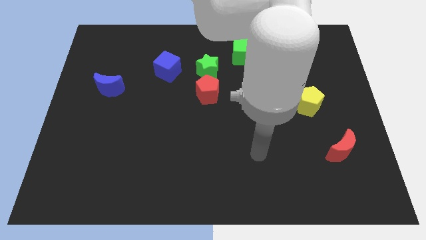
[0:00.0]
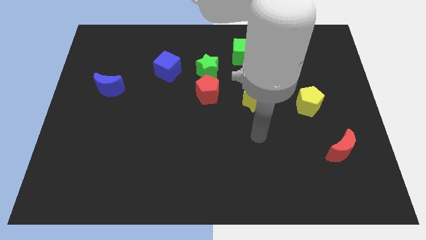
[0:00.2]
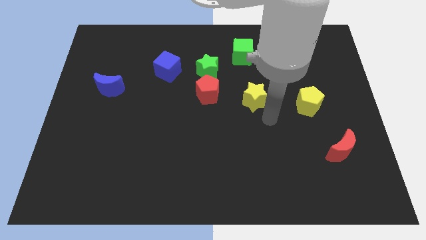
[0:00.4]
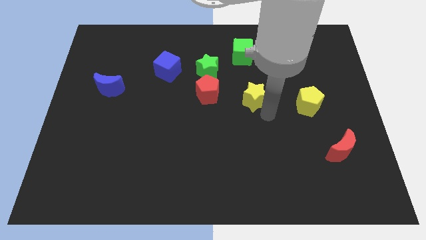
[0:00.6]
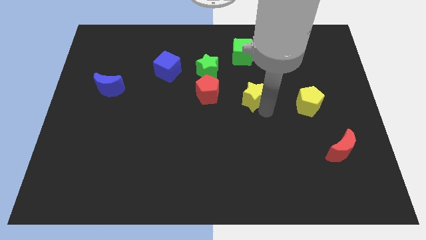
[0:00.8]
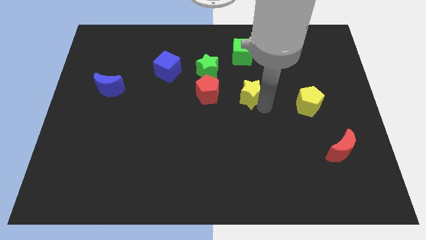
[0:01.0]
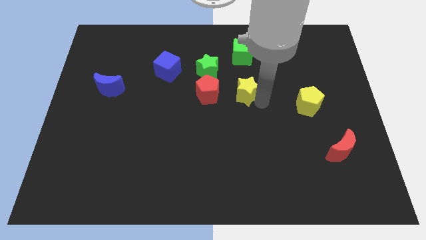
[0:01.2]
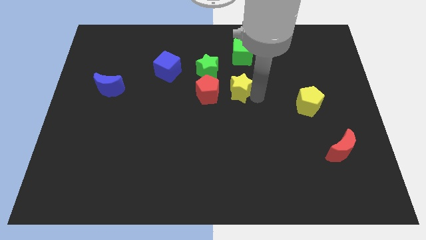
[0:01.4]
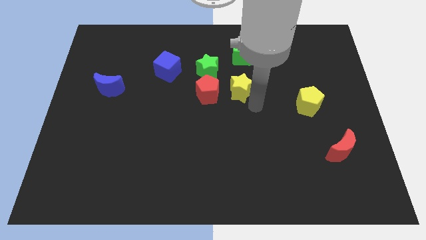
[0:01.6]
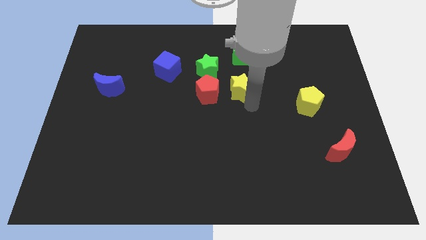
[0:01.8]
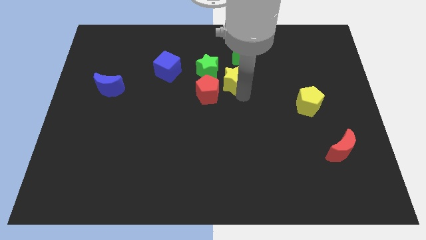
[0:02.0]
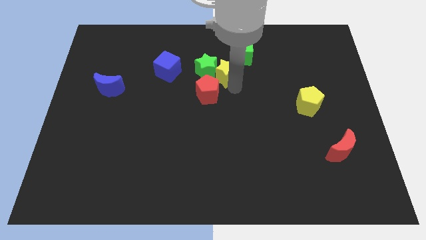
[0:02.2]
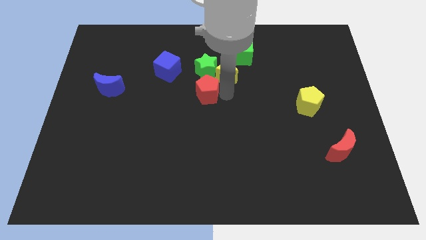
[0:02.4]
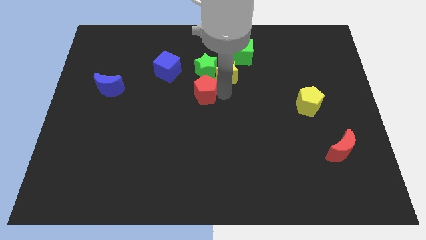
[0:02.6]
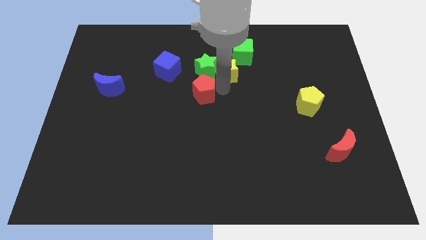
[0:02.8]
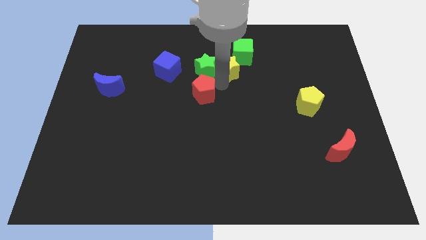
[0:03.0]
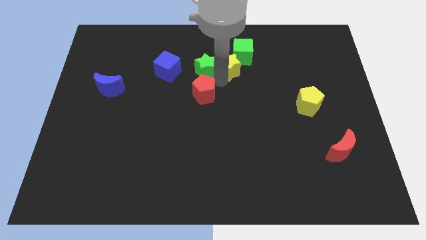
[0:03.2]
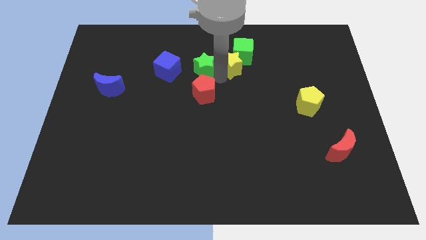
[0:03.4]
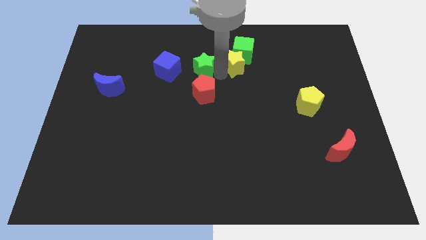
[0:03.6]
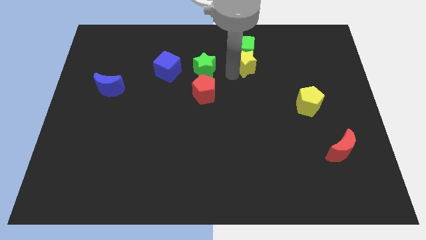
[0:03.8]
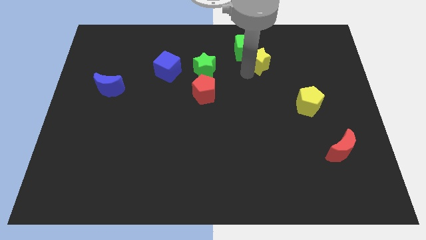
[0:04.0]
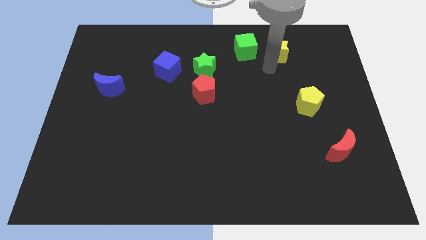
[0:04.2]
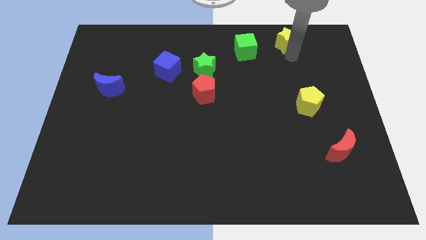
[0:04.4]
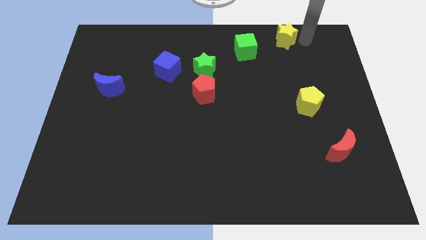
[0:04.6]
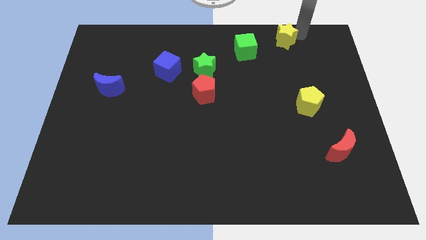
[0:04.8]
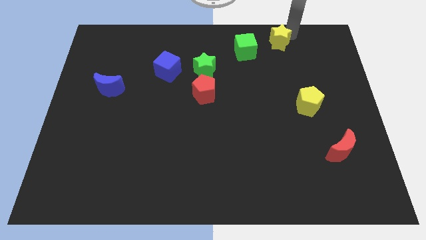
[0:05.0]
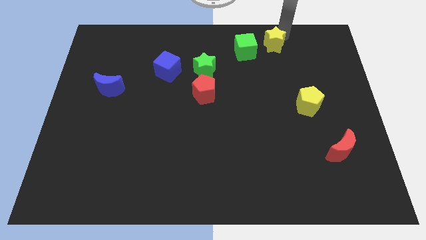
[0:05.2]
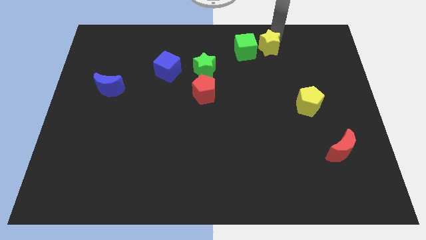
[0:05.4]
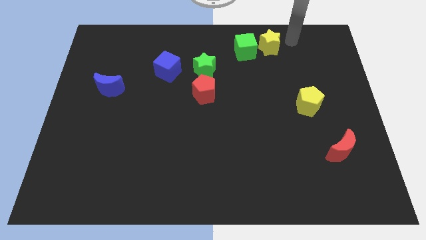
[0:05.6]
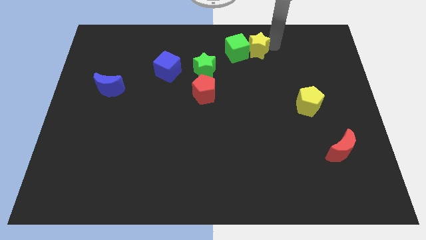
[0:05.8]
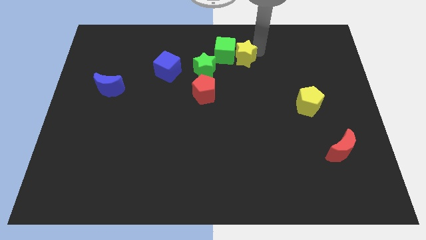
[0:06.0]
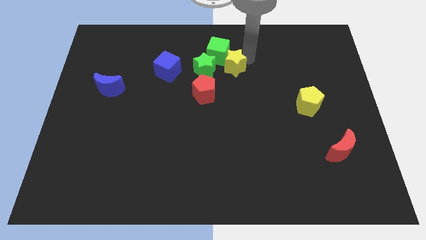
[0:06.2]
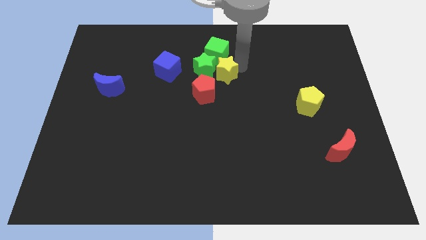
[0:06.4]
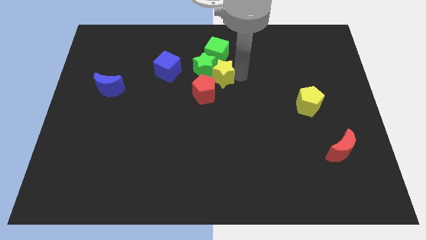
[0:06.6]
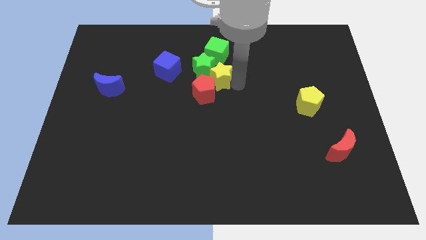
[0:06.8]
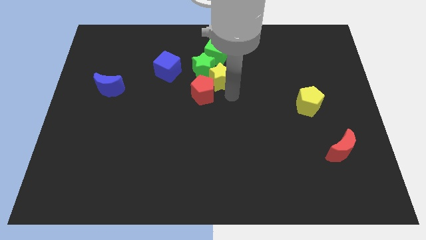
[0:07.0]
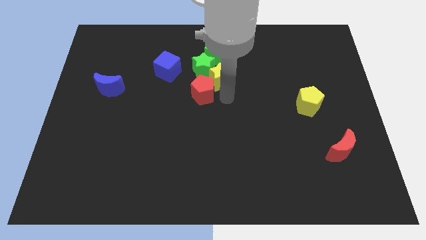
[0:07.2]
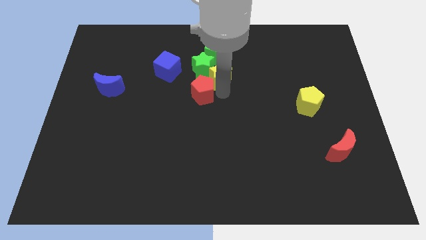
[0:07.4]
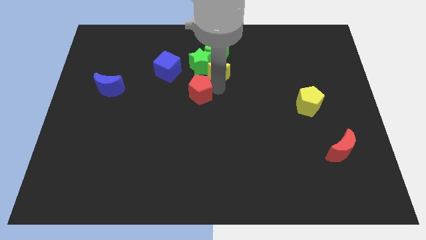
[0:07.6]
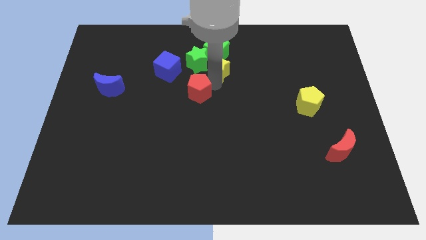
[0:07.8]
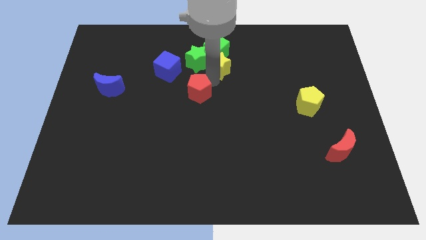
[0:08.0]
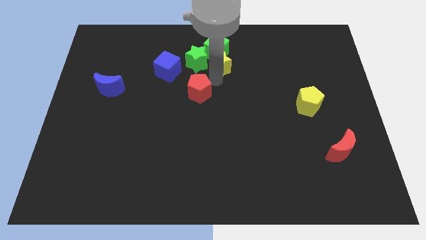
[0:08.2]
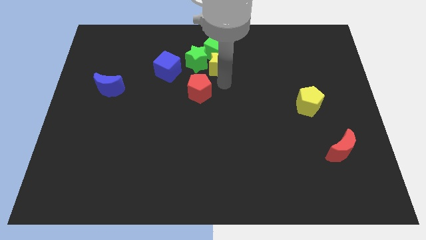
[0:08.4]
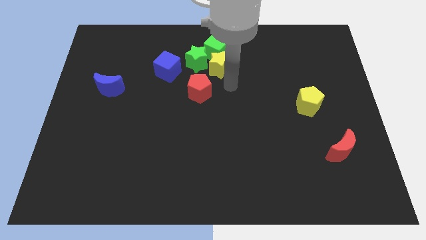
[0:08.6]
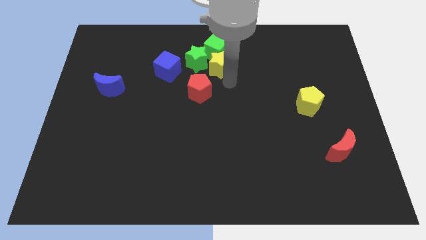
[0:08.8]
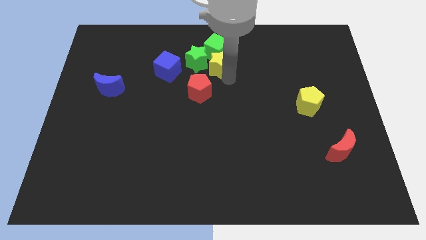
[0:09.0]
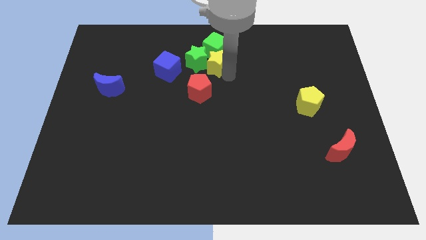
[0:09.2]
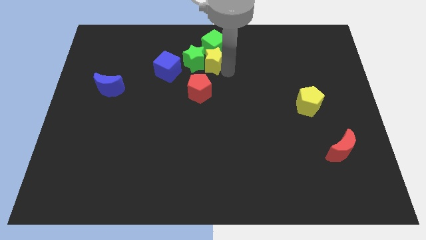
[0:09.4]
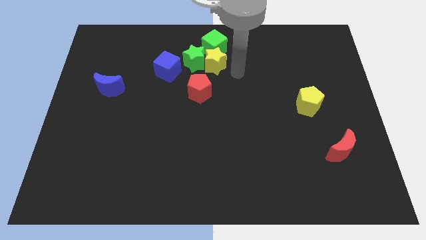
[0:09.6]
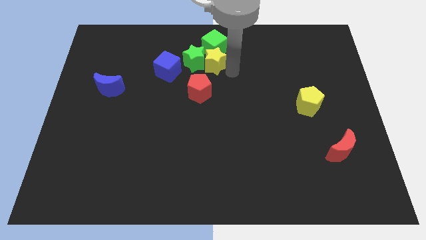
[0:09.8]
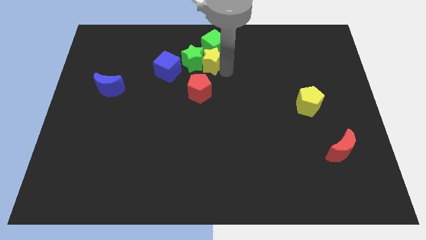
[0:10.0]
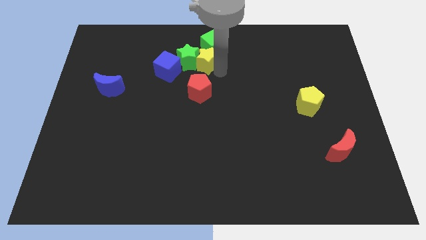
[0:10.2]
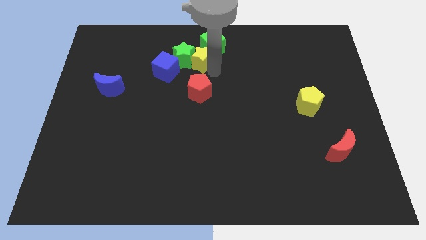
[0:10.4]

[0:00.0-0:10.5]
move the yellow star diagonally up and to the right of the blue cube
